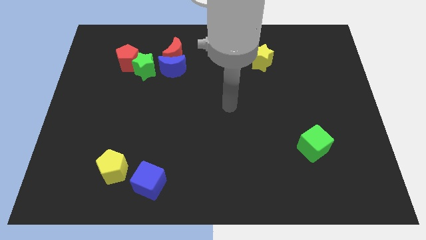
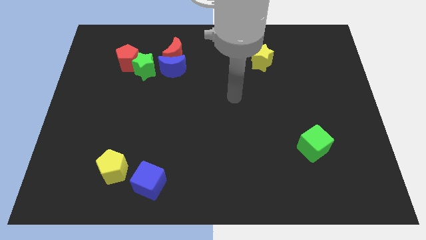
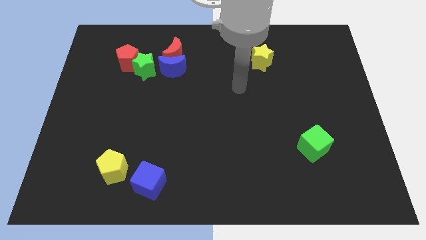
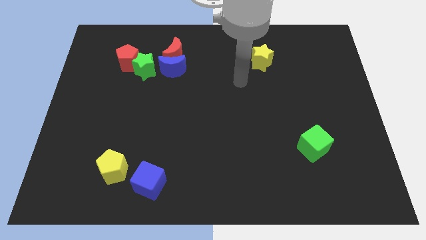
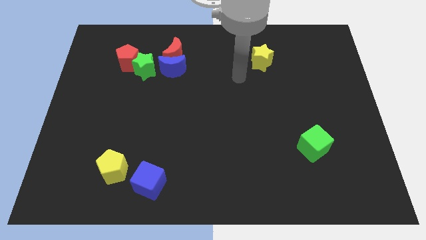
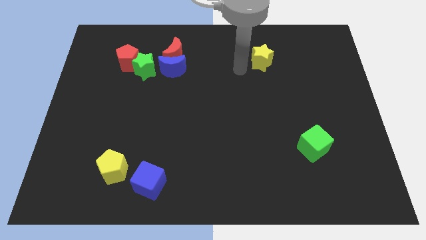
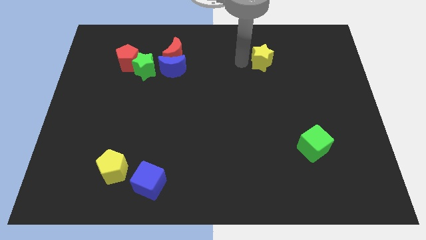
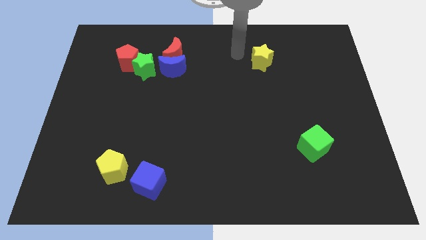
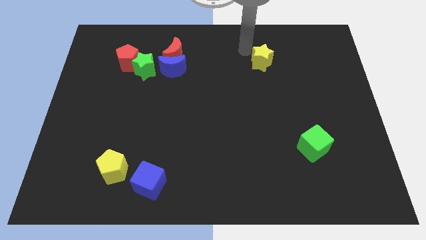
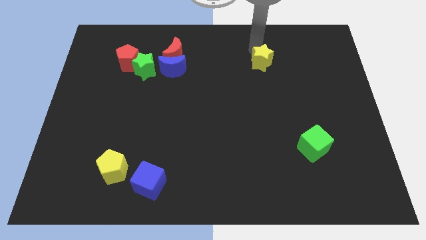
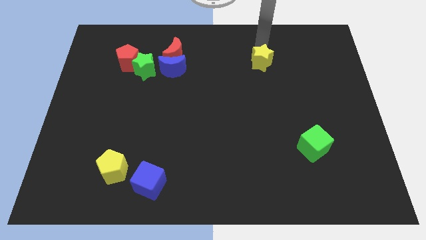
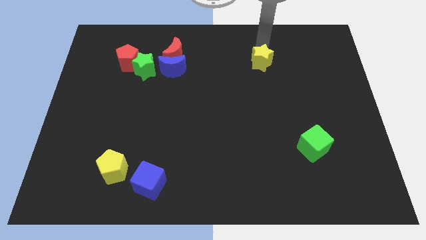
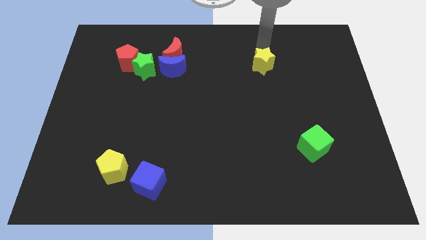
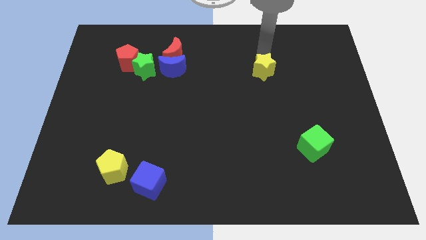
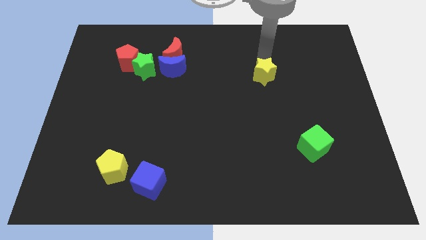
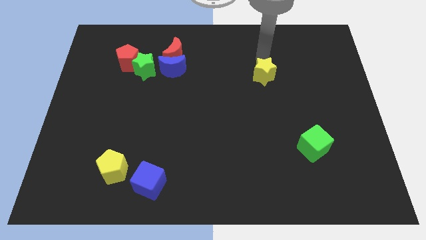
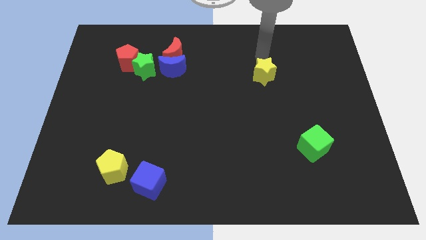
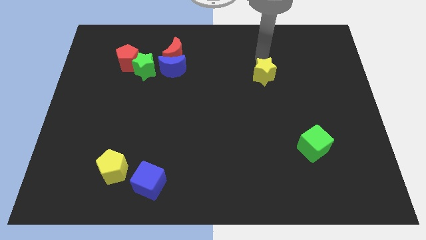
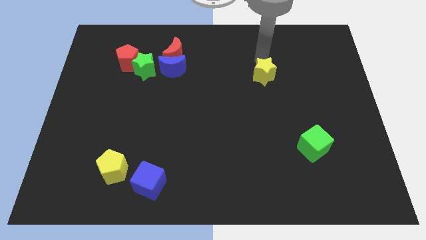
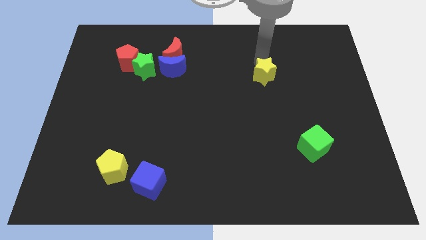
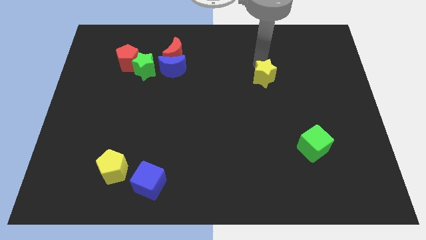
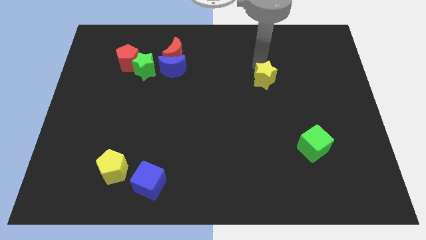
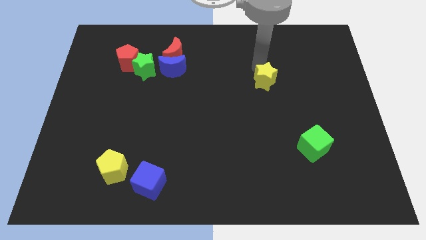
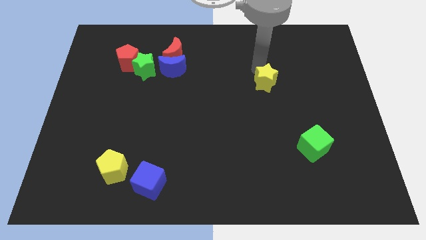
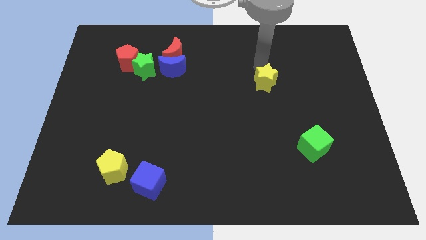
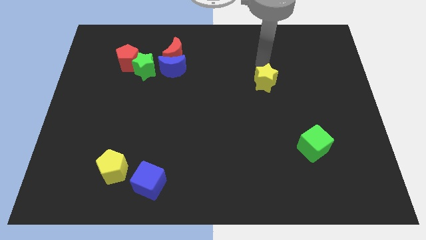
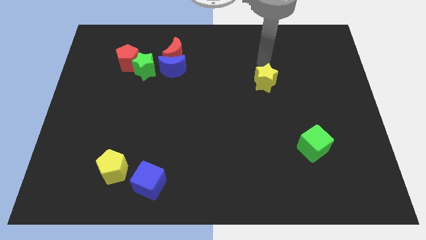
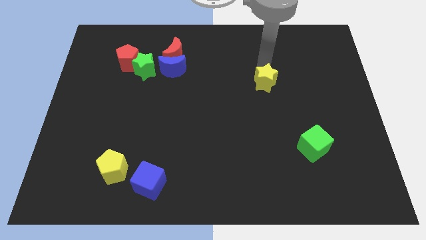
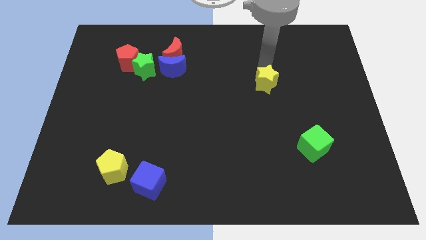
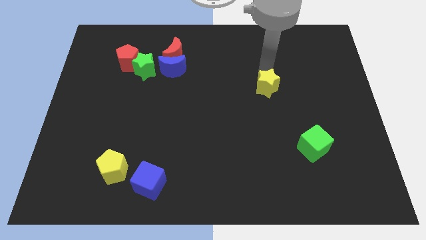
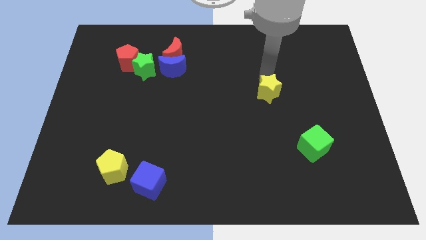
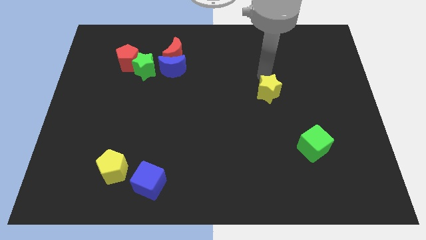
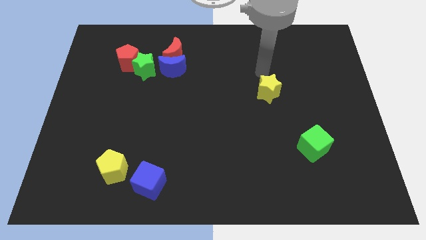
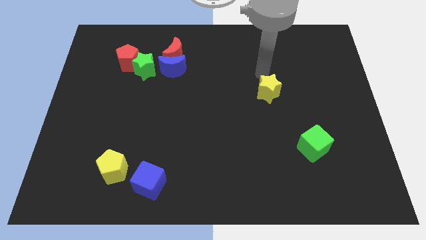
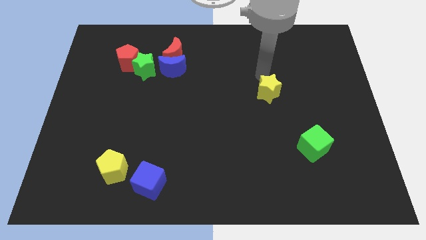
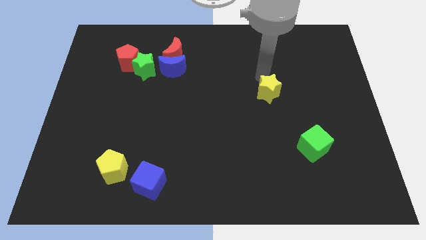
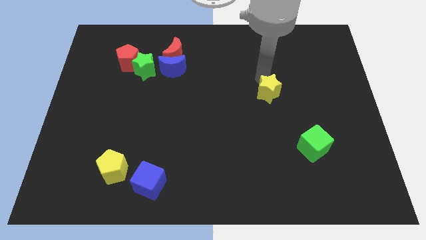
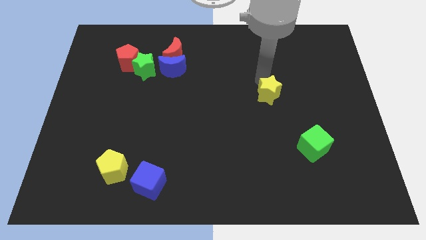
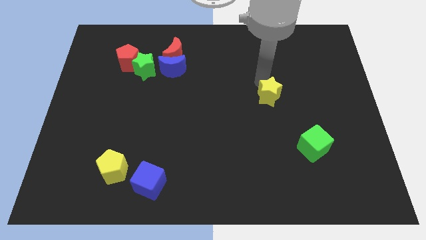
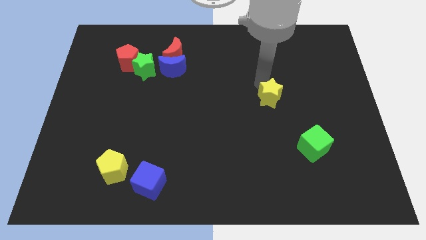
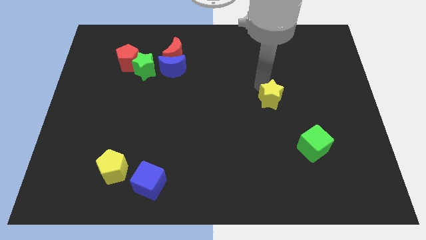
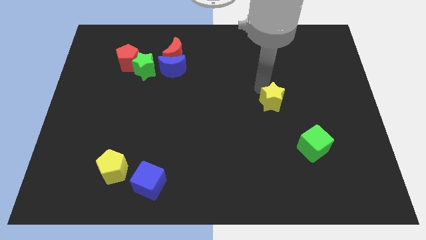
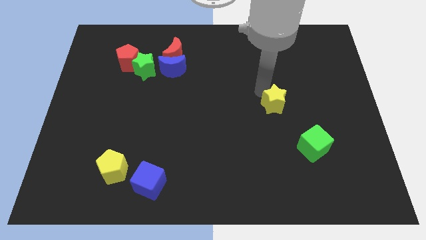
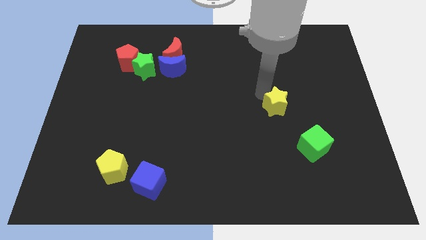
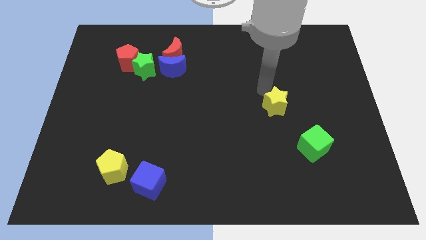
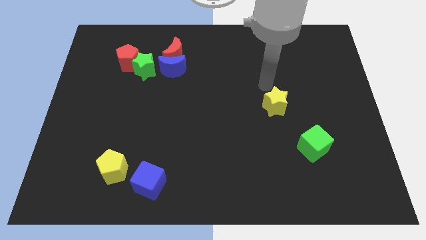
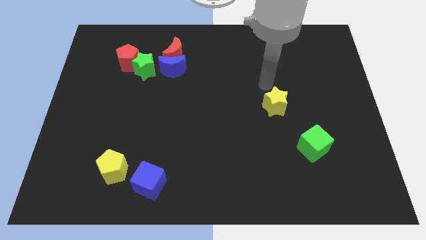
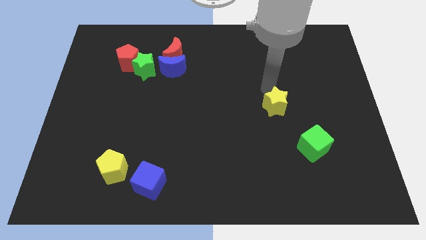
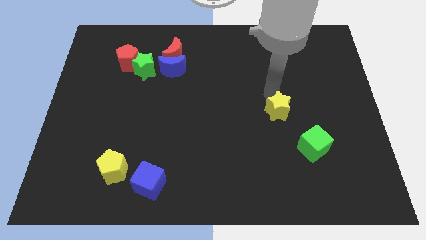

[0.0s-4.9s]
put the yellow star to the top left side of the green cube

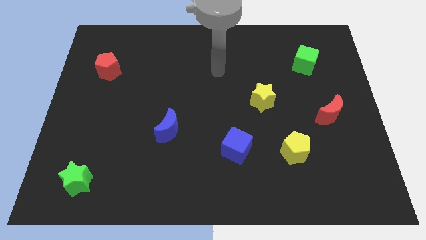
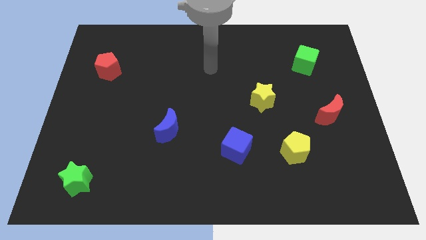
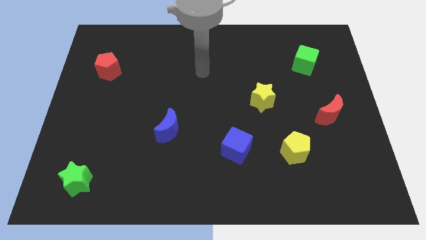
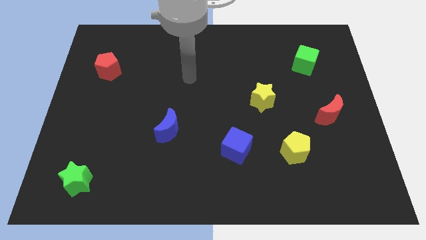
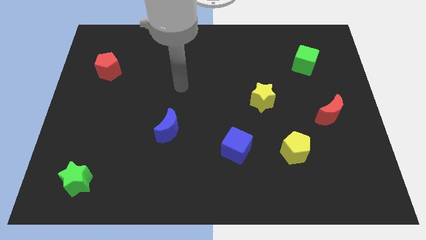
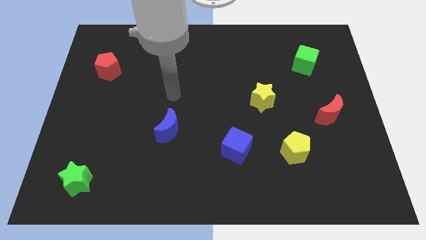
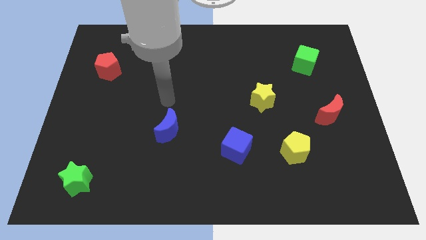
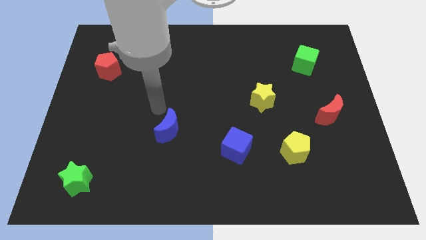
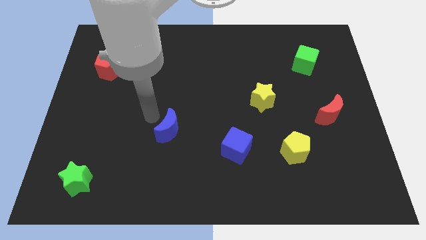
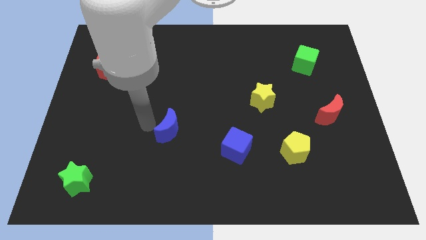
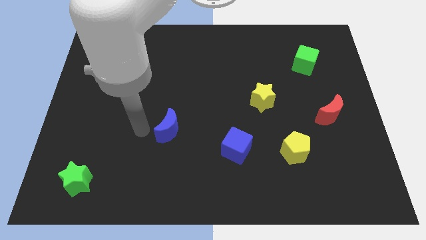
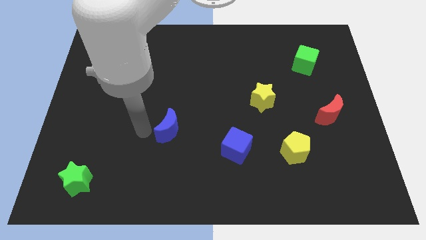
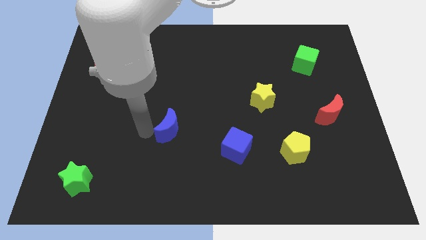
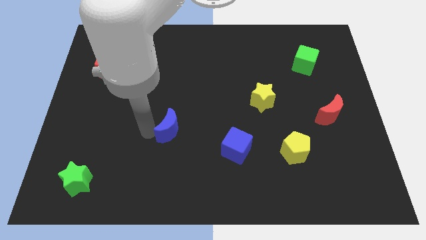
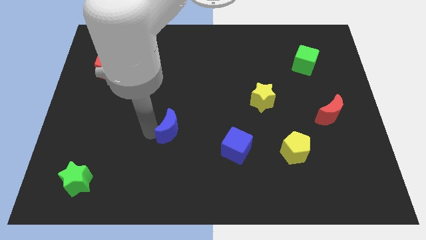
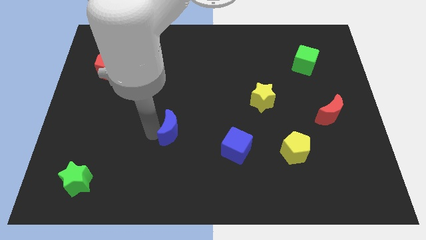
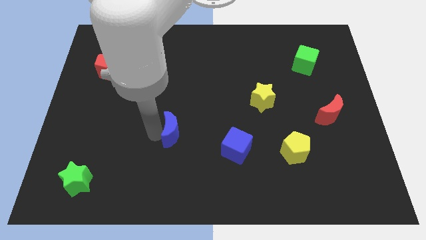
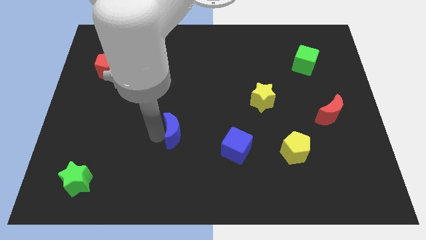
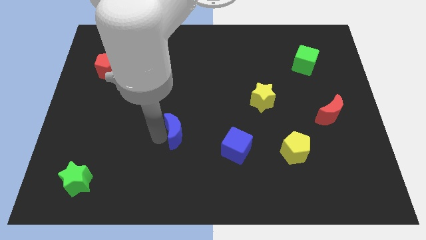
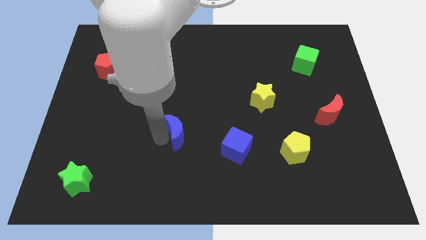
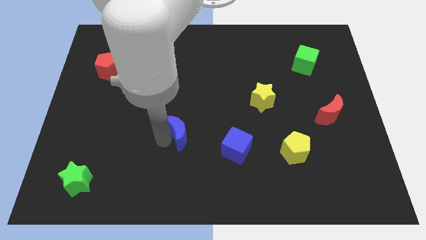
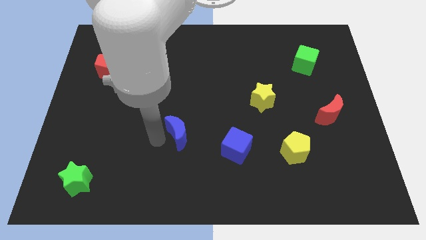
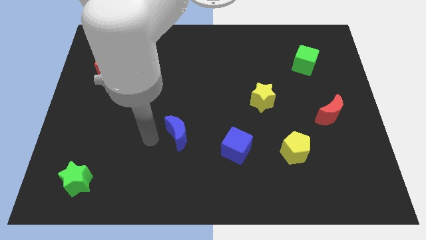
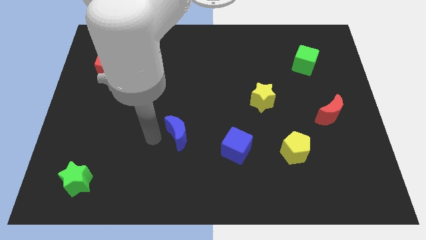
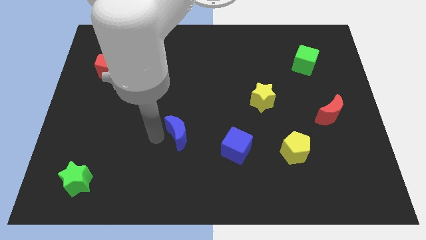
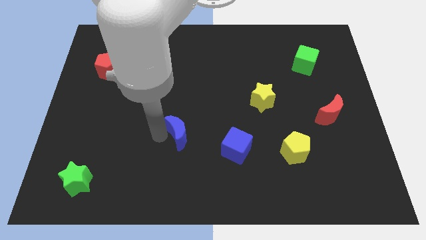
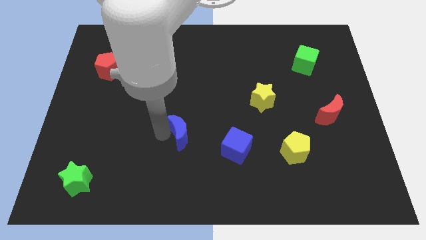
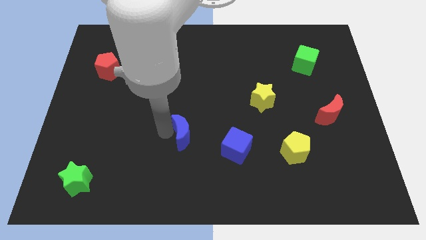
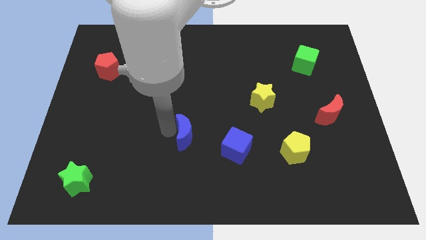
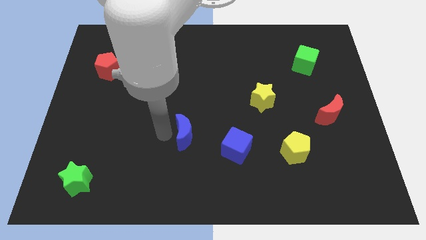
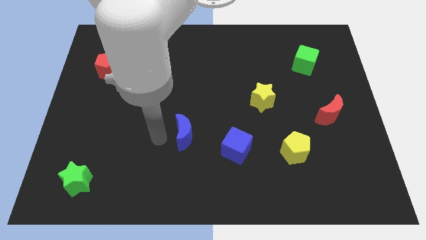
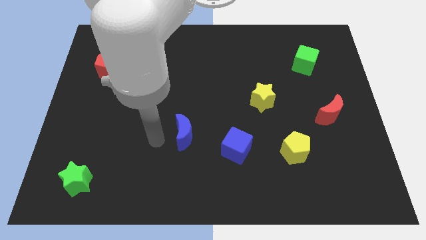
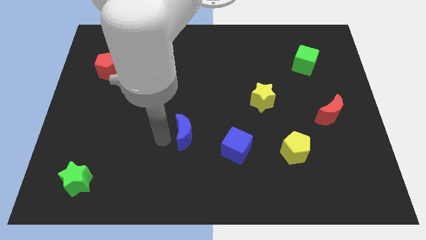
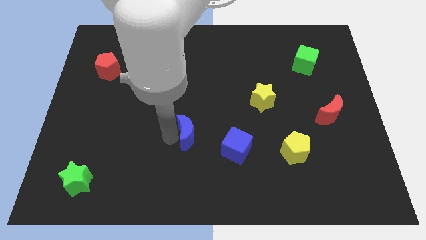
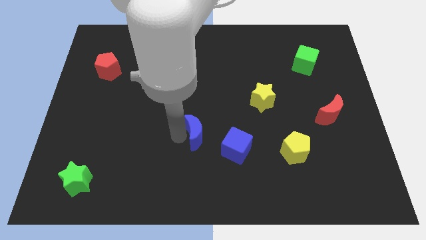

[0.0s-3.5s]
move the blue moon to the top left side of the blue cube
